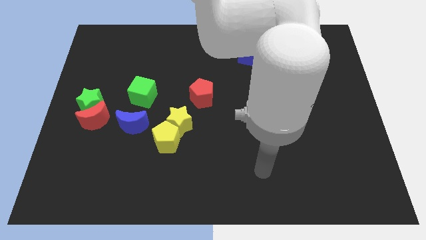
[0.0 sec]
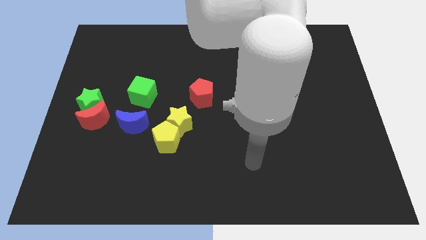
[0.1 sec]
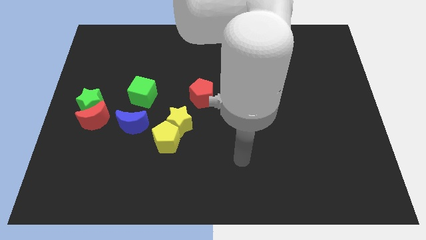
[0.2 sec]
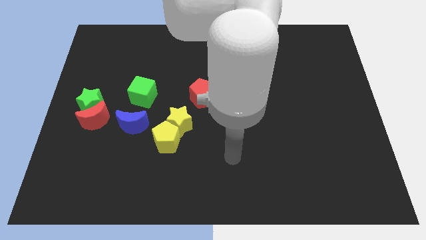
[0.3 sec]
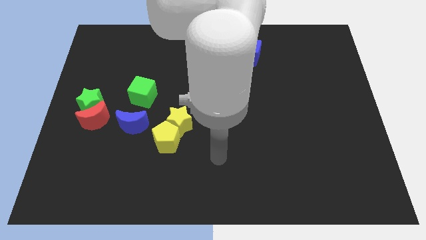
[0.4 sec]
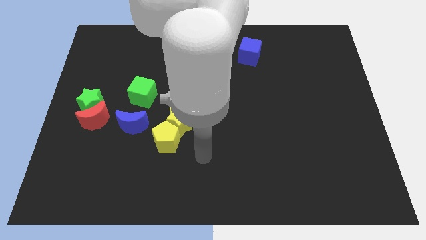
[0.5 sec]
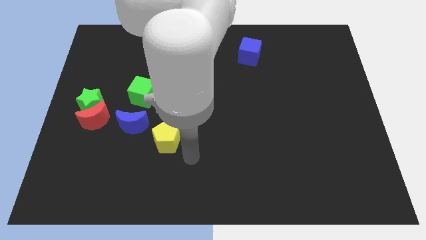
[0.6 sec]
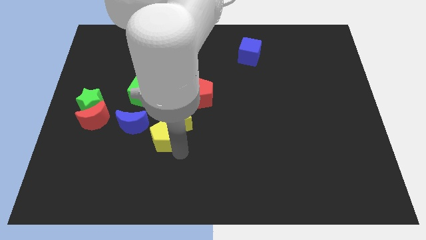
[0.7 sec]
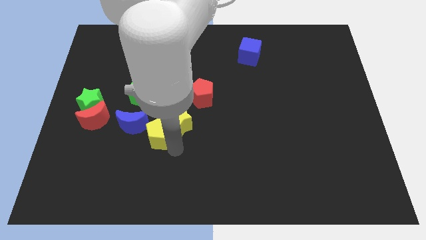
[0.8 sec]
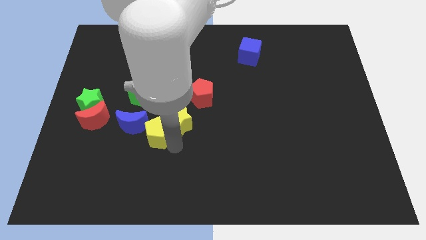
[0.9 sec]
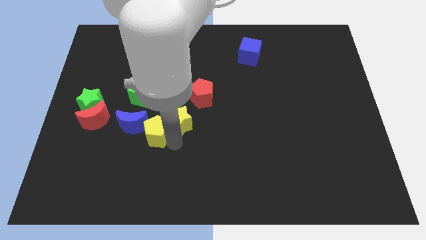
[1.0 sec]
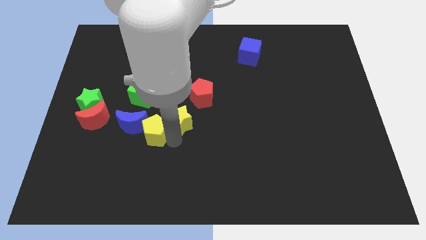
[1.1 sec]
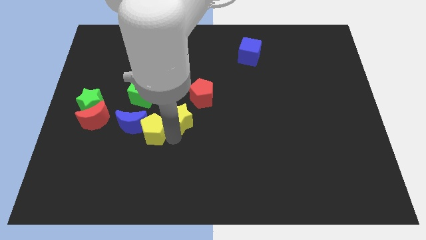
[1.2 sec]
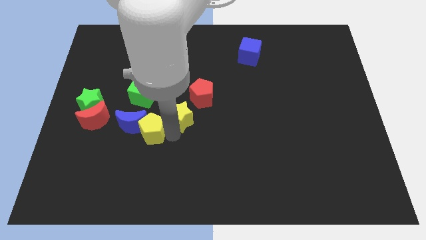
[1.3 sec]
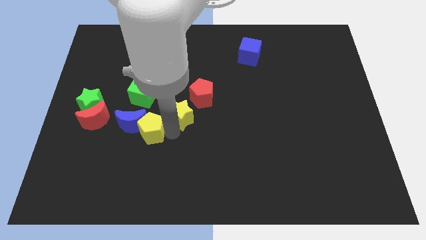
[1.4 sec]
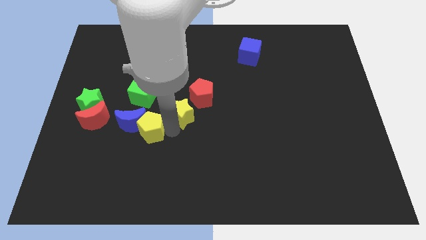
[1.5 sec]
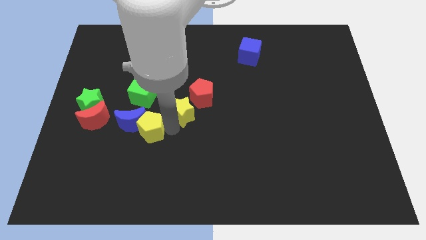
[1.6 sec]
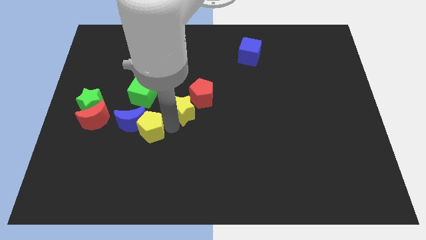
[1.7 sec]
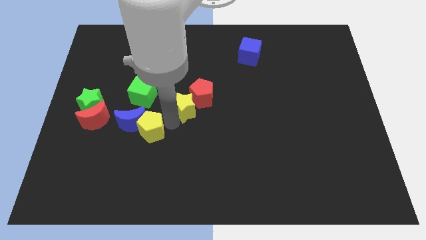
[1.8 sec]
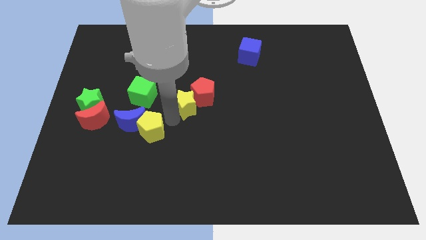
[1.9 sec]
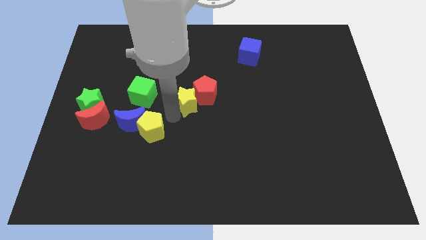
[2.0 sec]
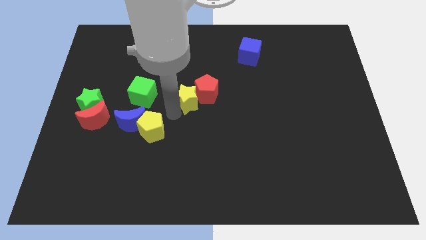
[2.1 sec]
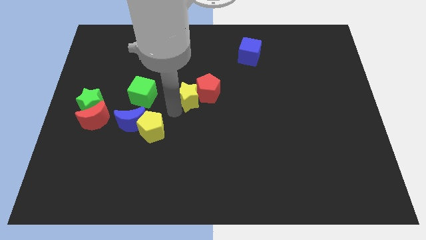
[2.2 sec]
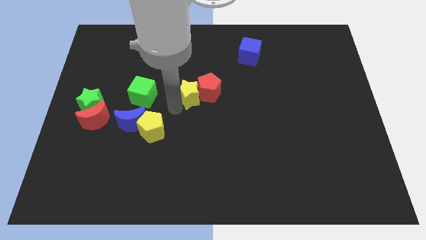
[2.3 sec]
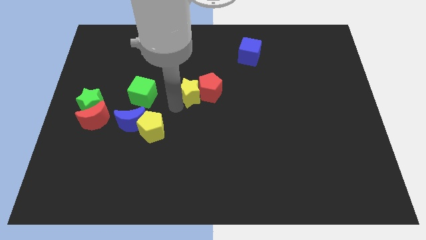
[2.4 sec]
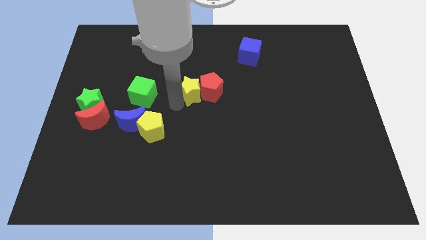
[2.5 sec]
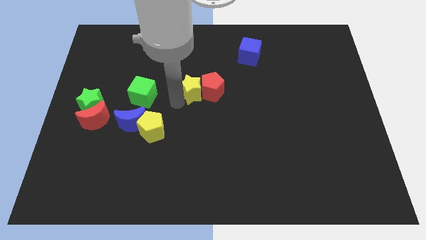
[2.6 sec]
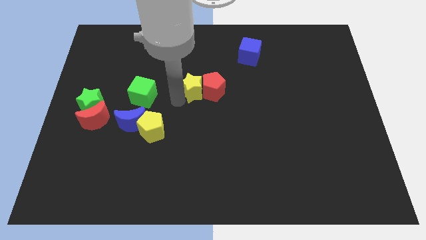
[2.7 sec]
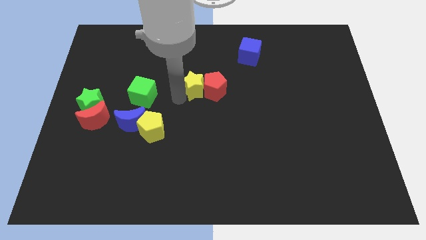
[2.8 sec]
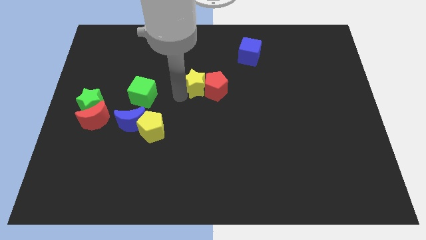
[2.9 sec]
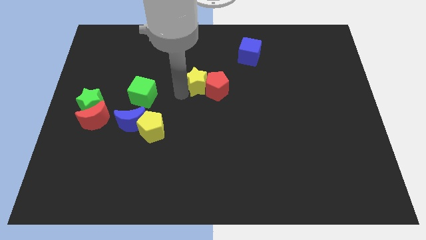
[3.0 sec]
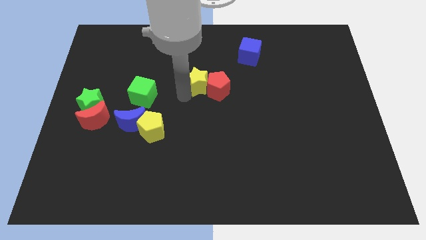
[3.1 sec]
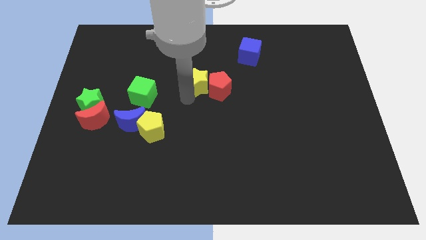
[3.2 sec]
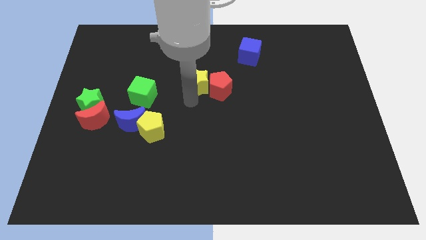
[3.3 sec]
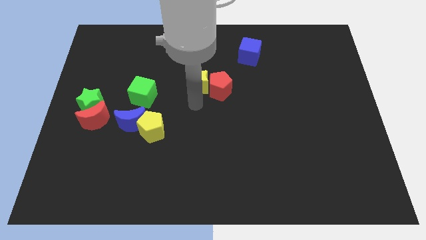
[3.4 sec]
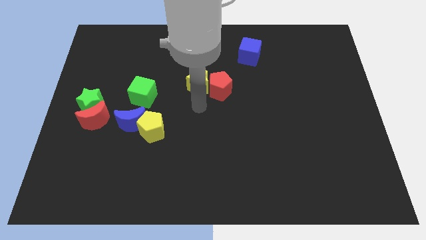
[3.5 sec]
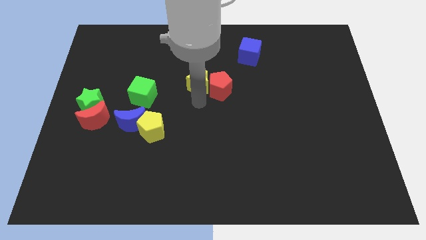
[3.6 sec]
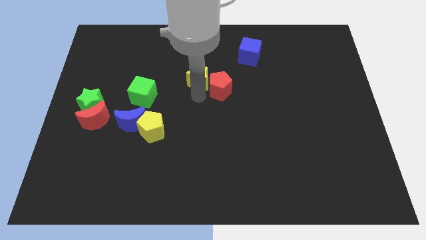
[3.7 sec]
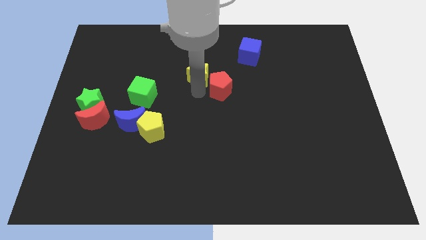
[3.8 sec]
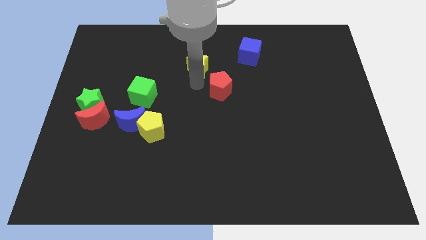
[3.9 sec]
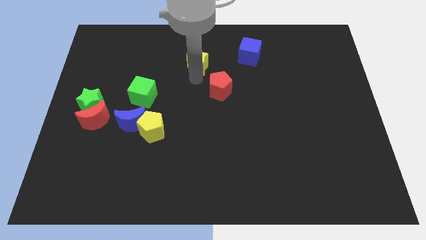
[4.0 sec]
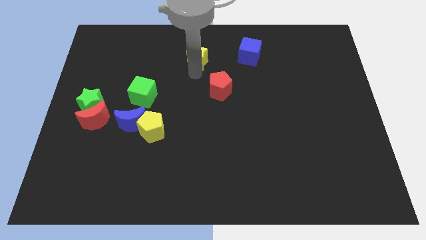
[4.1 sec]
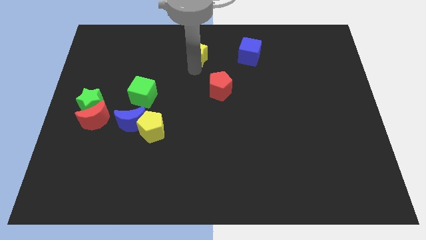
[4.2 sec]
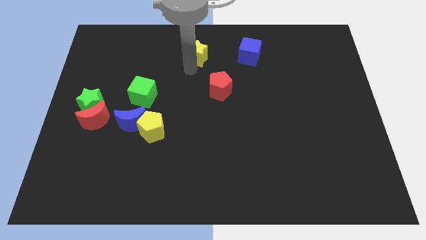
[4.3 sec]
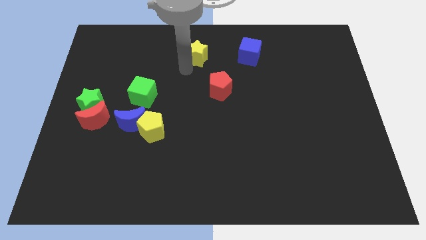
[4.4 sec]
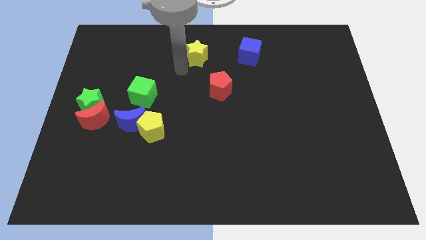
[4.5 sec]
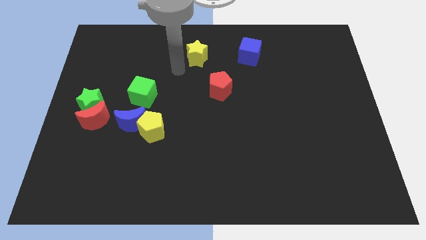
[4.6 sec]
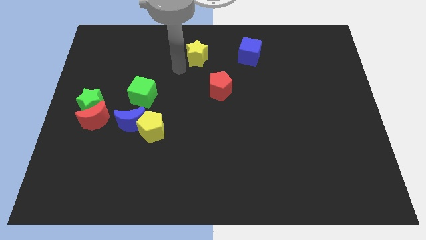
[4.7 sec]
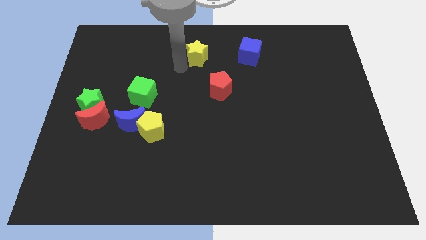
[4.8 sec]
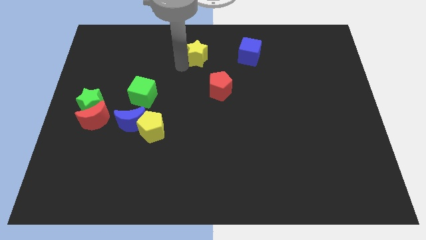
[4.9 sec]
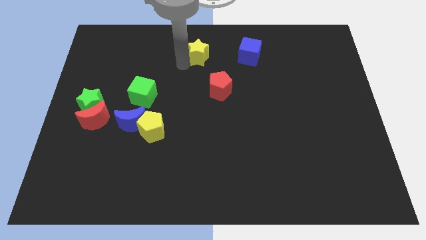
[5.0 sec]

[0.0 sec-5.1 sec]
slide the yellow star to the towards your base

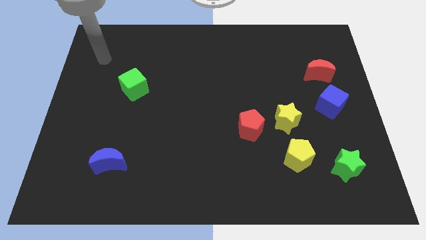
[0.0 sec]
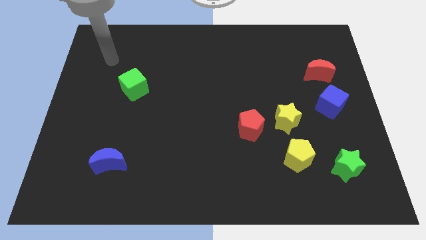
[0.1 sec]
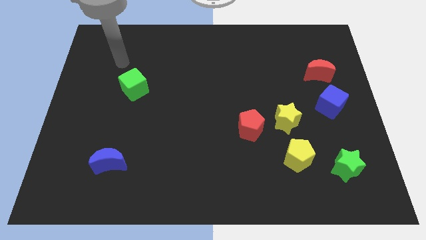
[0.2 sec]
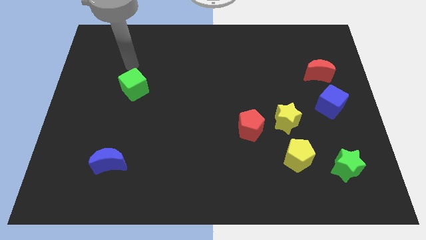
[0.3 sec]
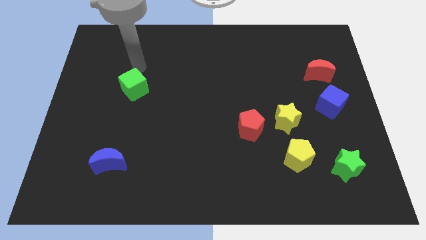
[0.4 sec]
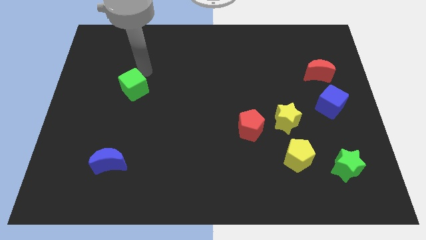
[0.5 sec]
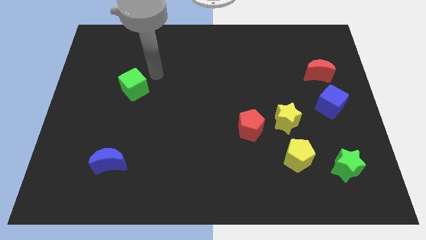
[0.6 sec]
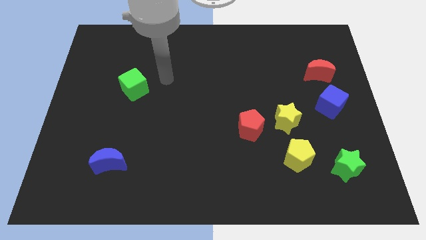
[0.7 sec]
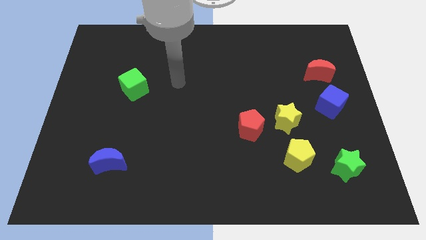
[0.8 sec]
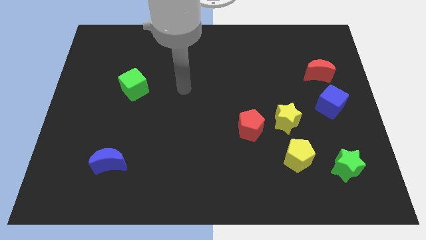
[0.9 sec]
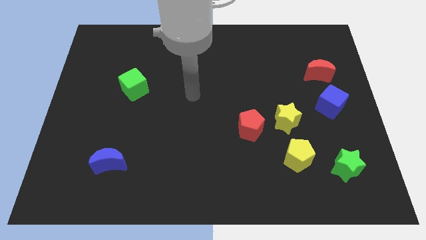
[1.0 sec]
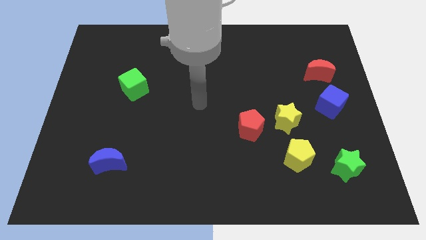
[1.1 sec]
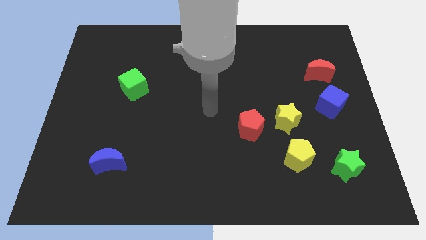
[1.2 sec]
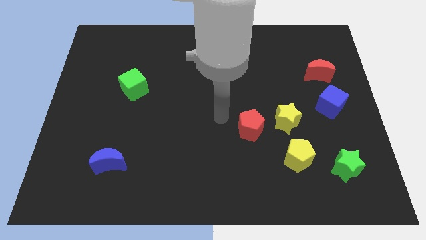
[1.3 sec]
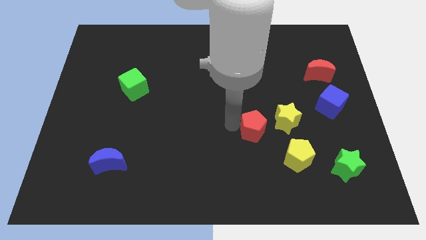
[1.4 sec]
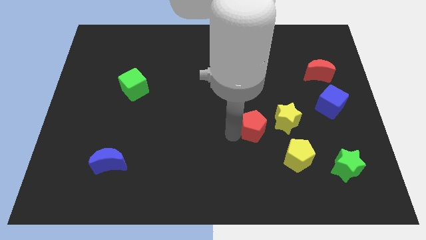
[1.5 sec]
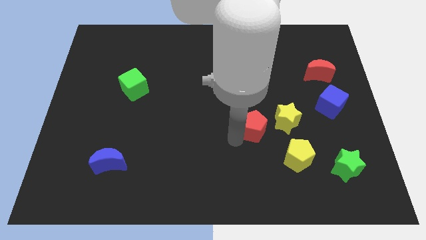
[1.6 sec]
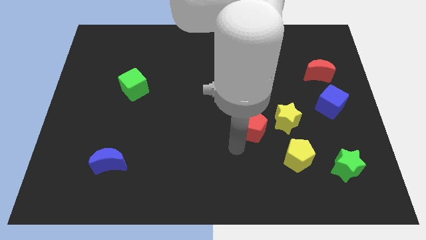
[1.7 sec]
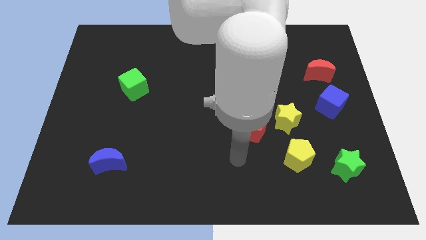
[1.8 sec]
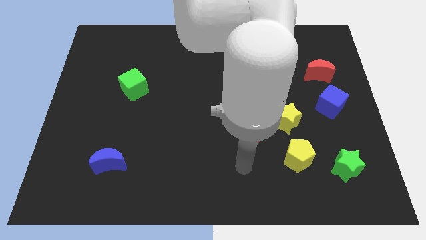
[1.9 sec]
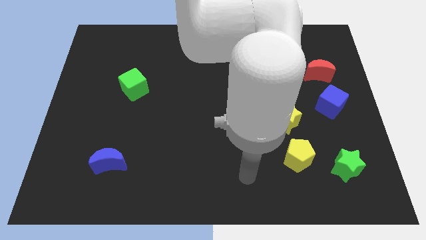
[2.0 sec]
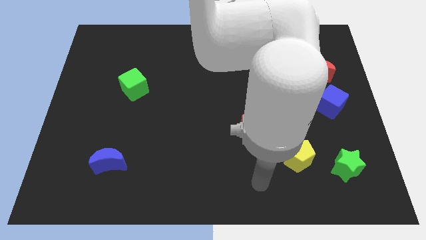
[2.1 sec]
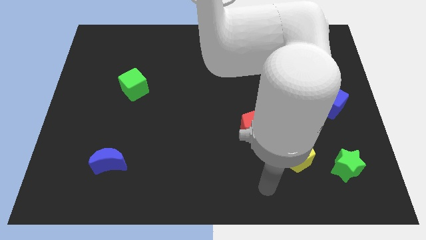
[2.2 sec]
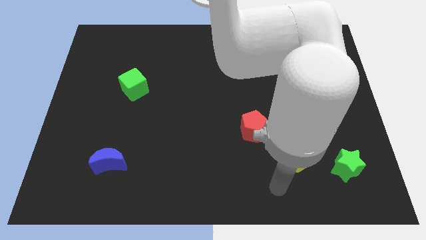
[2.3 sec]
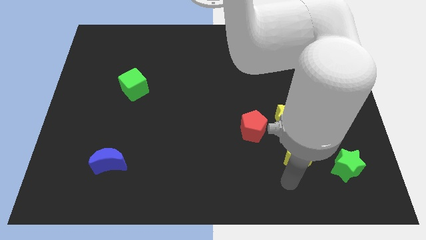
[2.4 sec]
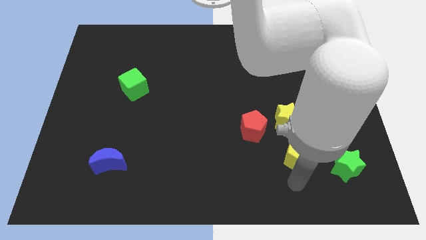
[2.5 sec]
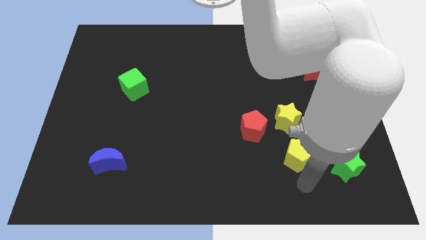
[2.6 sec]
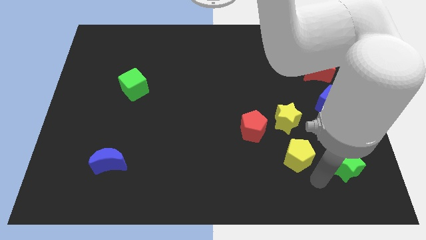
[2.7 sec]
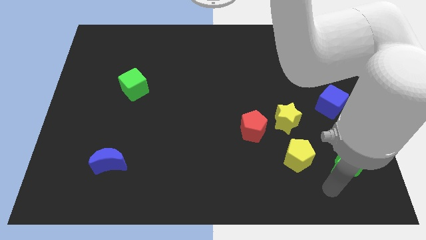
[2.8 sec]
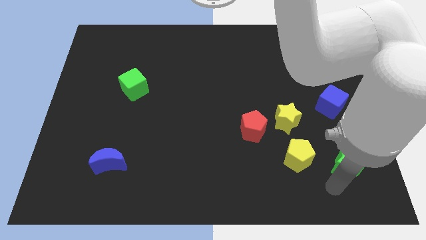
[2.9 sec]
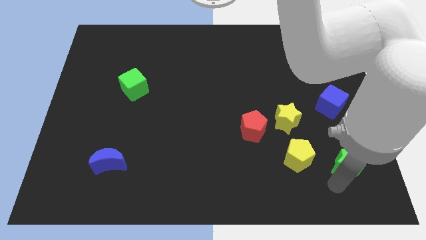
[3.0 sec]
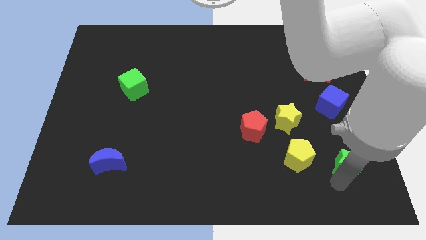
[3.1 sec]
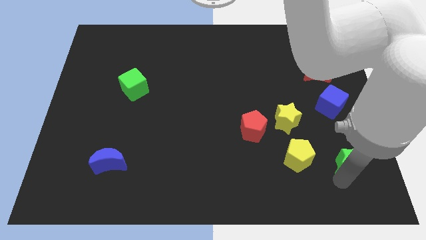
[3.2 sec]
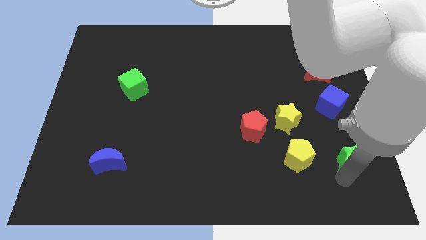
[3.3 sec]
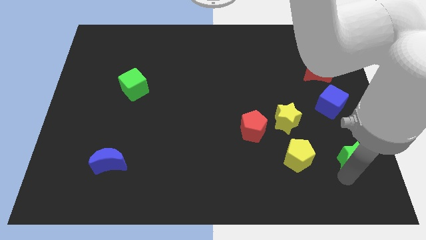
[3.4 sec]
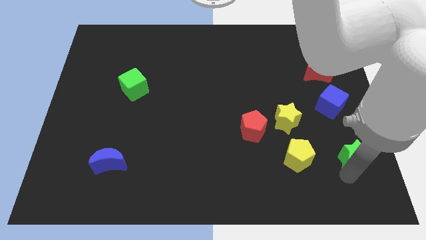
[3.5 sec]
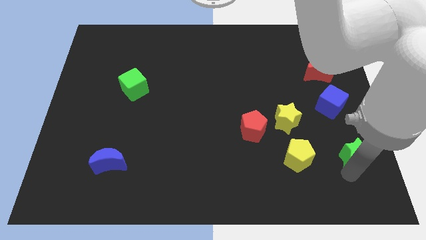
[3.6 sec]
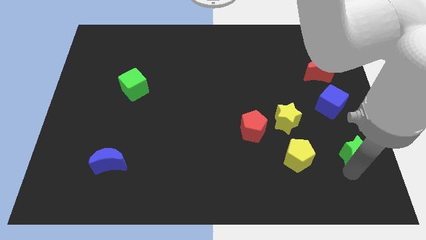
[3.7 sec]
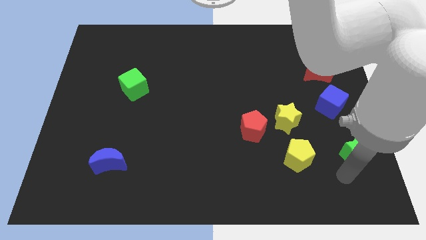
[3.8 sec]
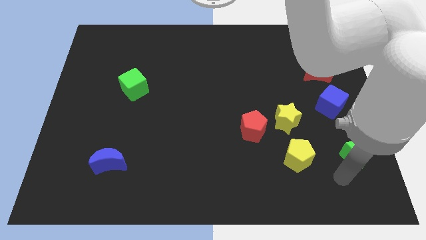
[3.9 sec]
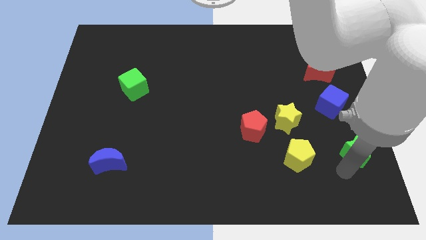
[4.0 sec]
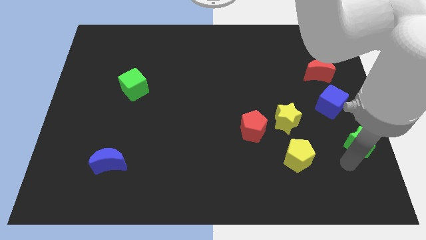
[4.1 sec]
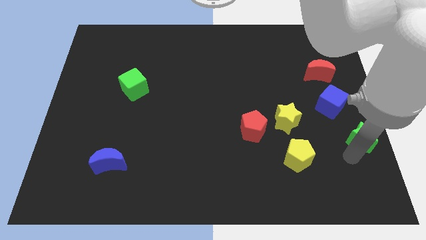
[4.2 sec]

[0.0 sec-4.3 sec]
put the green star to the right side of the board
